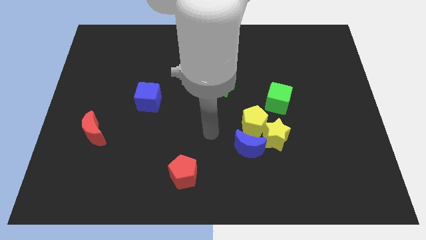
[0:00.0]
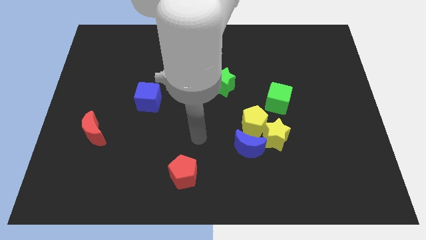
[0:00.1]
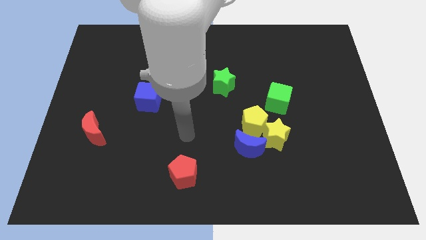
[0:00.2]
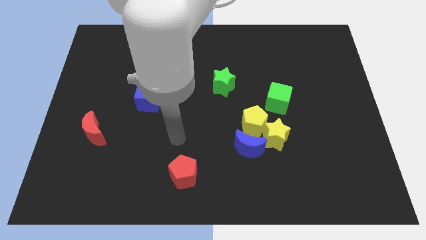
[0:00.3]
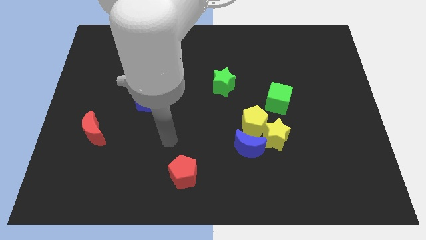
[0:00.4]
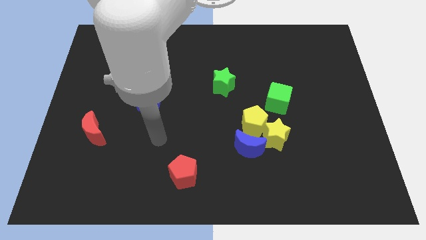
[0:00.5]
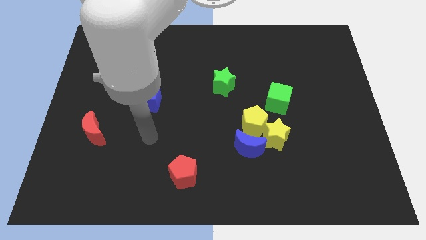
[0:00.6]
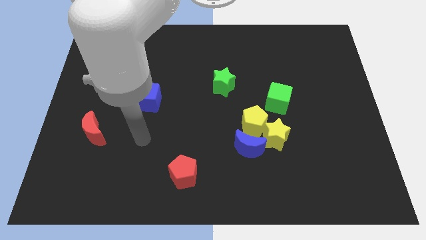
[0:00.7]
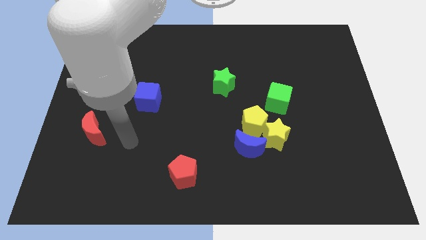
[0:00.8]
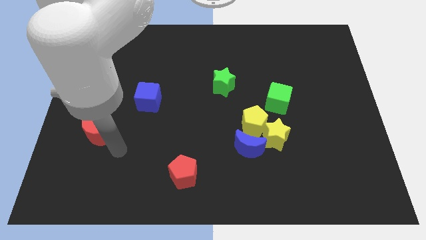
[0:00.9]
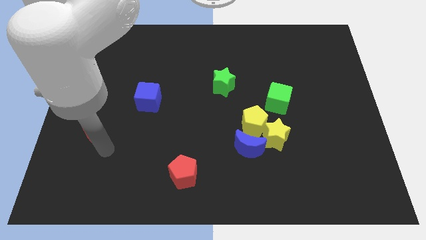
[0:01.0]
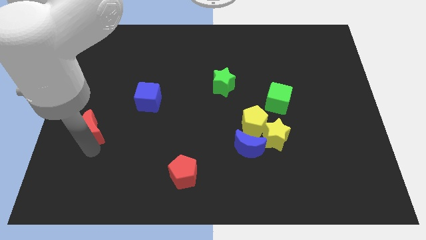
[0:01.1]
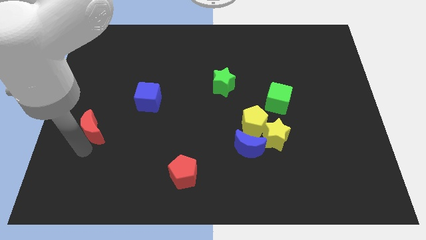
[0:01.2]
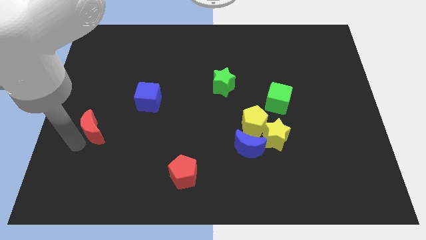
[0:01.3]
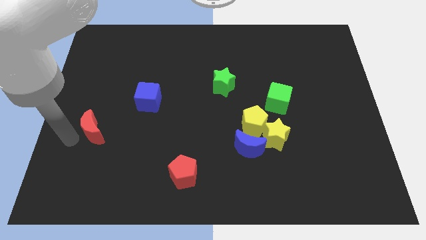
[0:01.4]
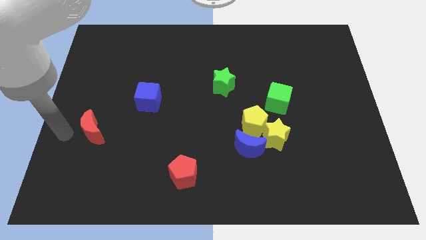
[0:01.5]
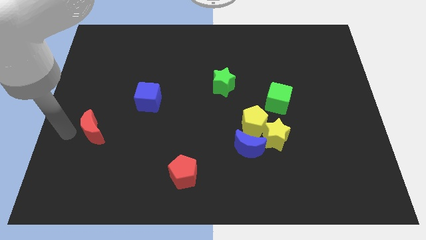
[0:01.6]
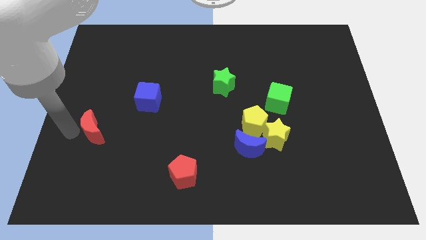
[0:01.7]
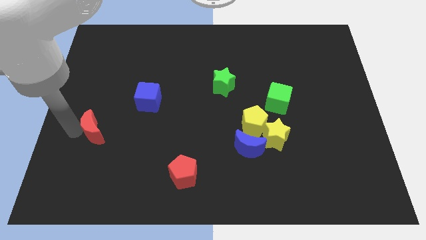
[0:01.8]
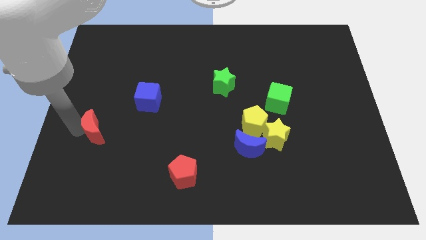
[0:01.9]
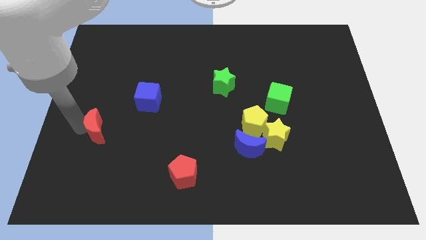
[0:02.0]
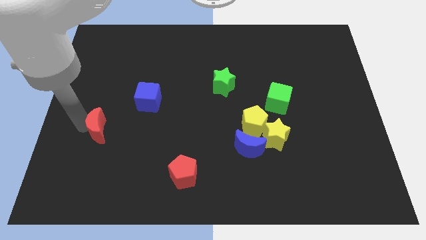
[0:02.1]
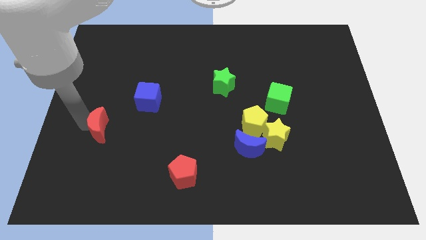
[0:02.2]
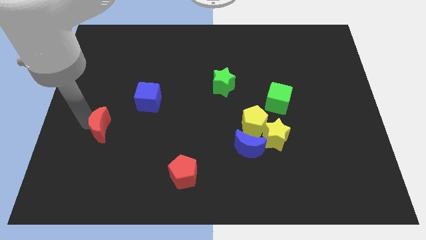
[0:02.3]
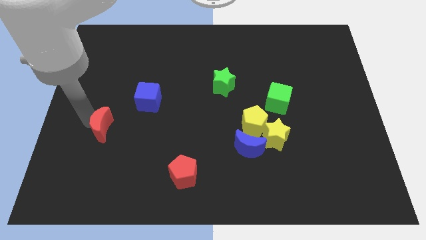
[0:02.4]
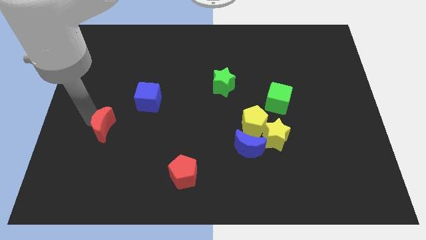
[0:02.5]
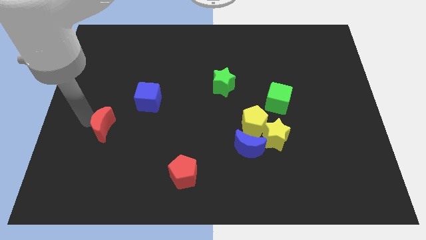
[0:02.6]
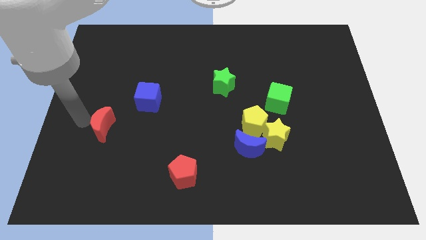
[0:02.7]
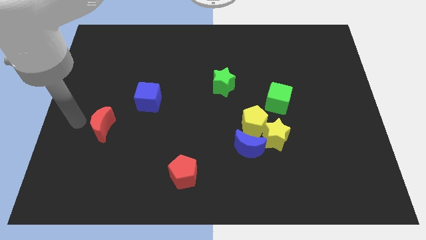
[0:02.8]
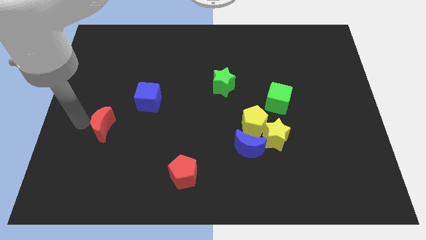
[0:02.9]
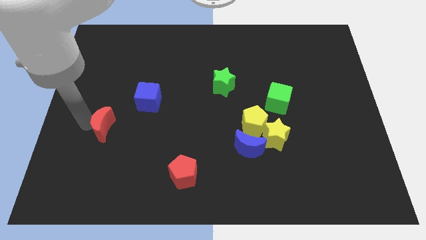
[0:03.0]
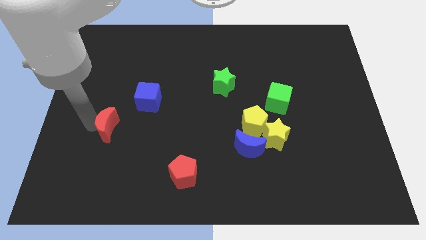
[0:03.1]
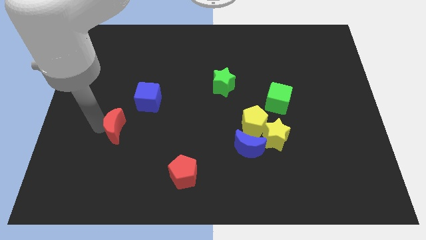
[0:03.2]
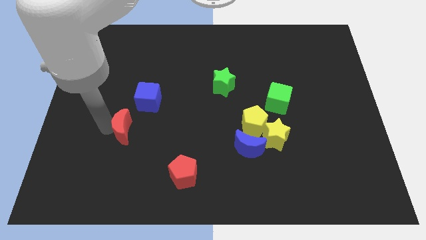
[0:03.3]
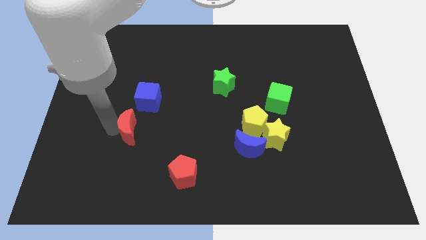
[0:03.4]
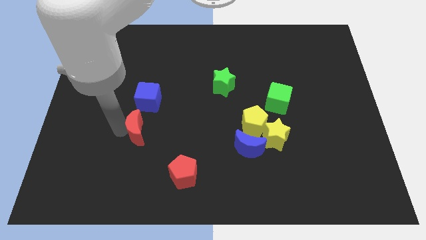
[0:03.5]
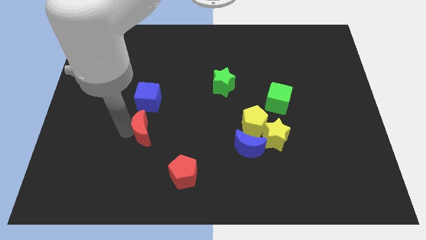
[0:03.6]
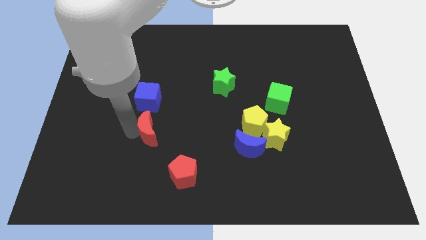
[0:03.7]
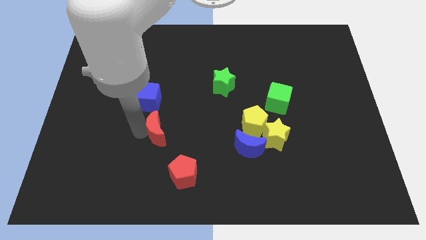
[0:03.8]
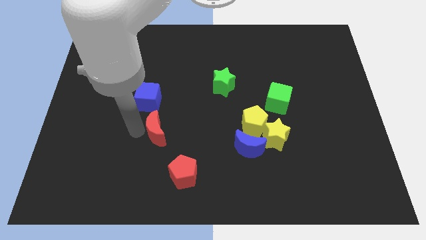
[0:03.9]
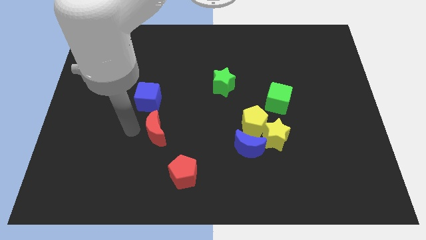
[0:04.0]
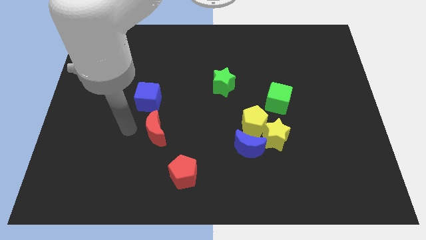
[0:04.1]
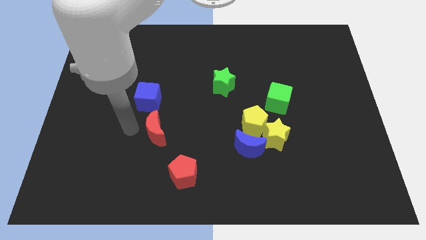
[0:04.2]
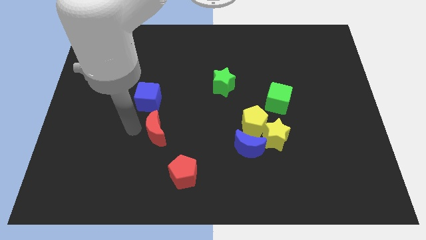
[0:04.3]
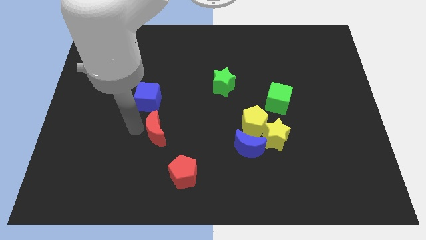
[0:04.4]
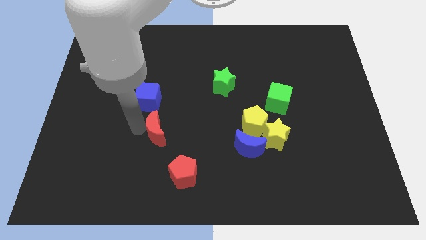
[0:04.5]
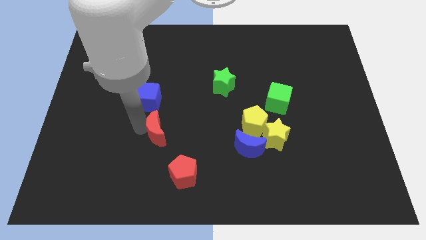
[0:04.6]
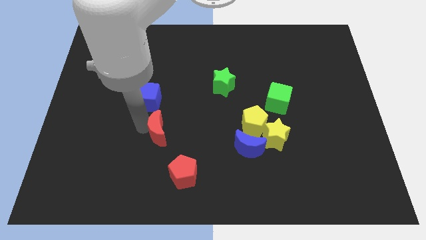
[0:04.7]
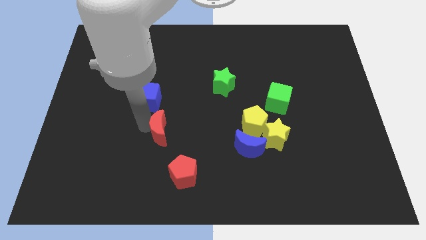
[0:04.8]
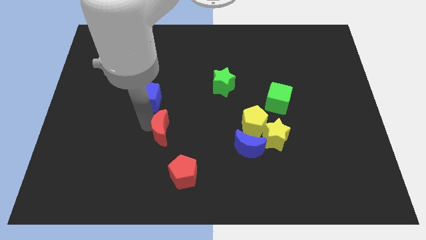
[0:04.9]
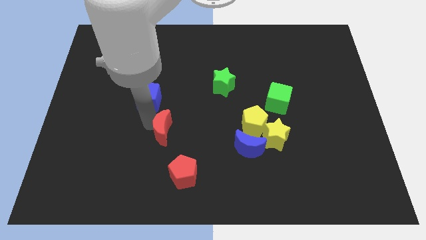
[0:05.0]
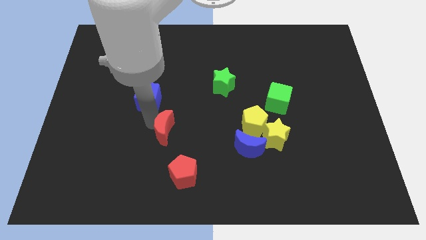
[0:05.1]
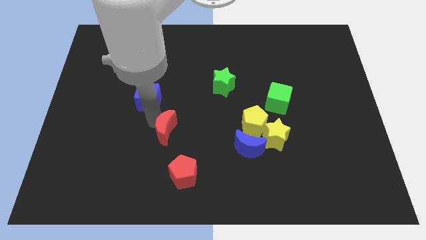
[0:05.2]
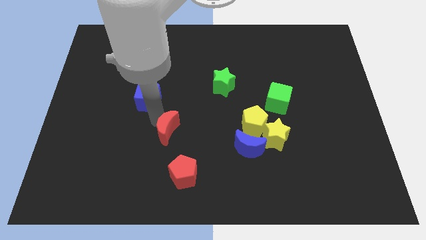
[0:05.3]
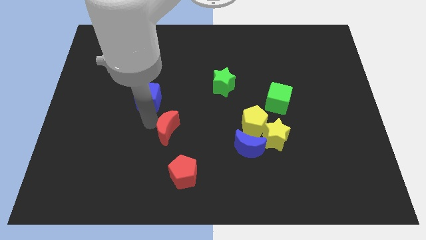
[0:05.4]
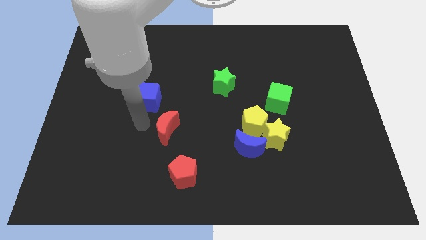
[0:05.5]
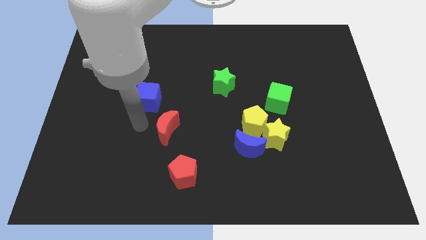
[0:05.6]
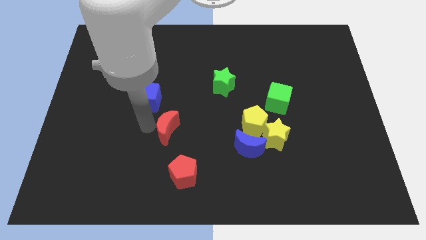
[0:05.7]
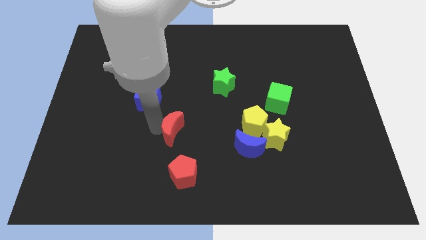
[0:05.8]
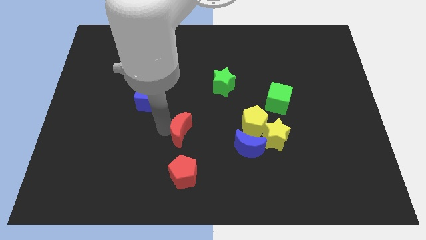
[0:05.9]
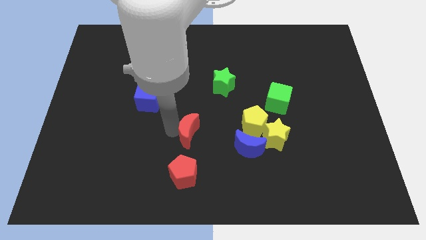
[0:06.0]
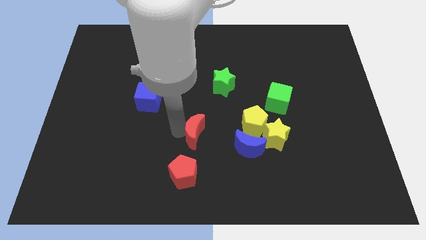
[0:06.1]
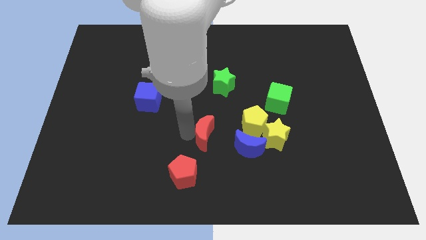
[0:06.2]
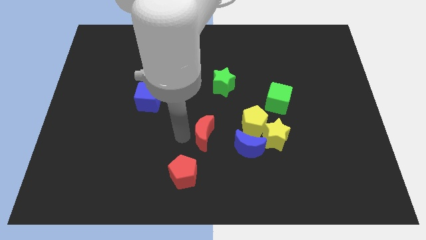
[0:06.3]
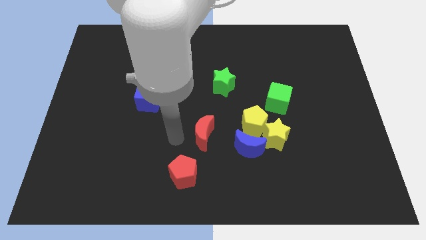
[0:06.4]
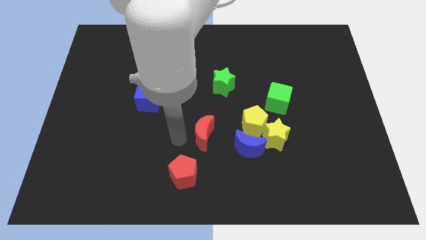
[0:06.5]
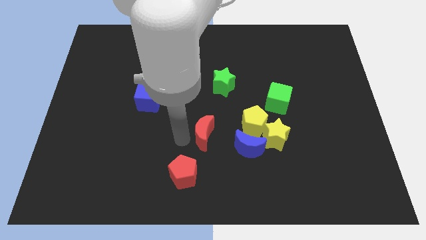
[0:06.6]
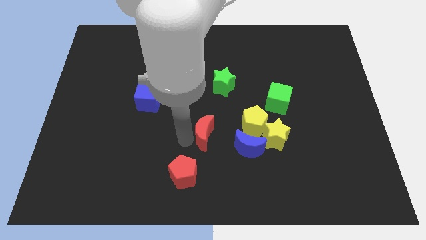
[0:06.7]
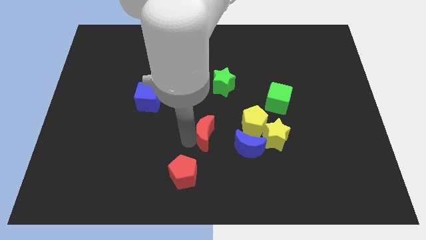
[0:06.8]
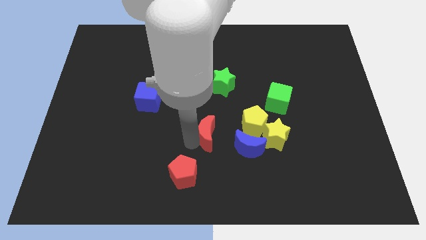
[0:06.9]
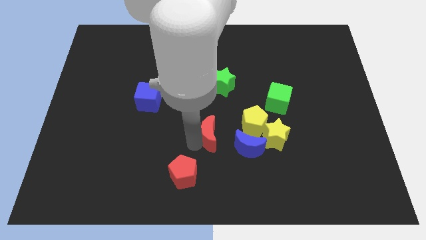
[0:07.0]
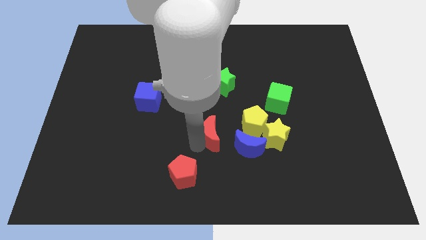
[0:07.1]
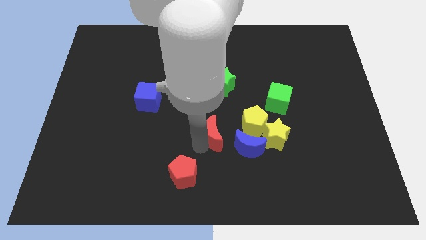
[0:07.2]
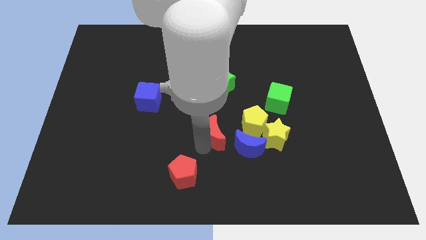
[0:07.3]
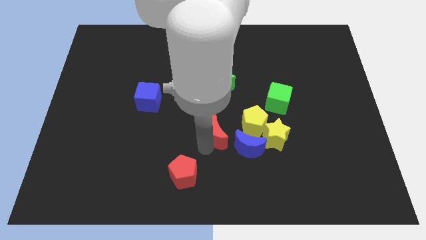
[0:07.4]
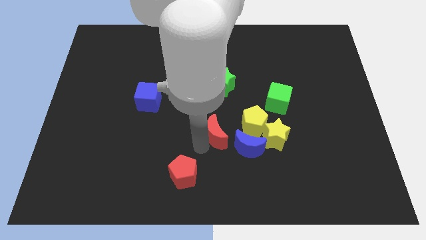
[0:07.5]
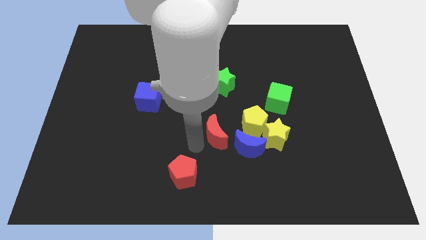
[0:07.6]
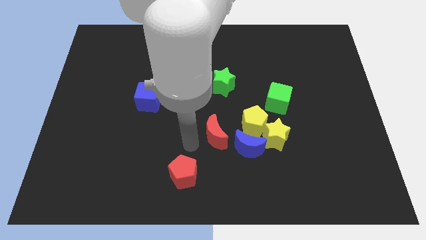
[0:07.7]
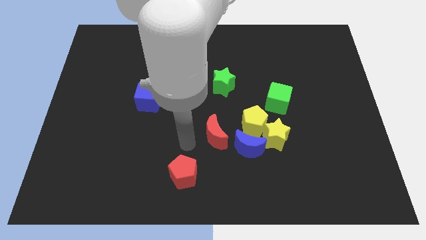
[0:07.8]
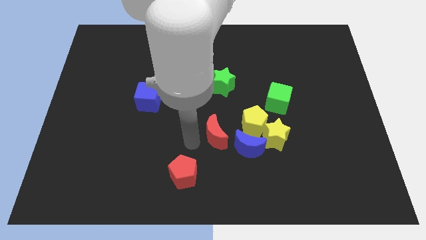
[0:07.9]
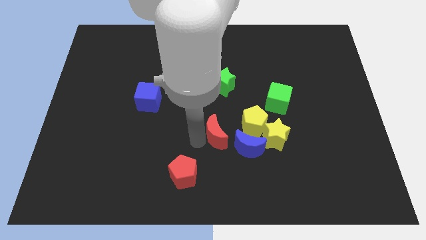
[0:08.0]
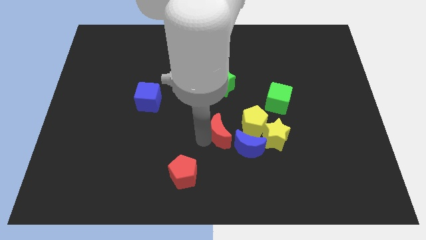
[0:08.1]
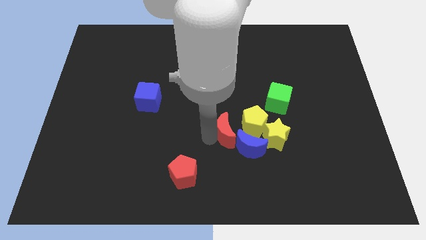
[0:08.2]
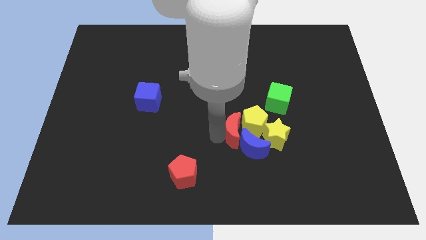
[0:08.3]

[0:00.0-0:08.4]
put the red moon close to the yellow pentagon
